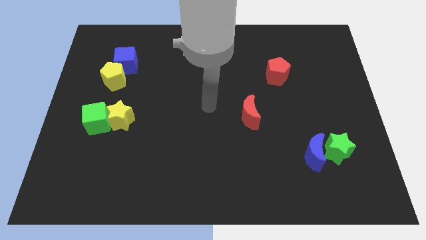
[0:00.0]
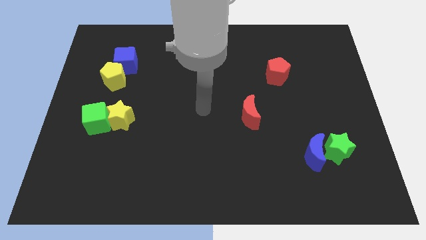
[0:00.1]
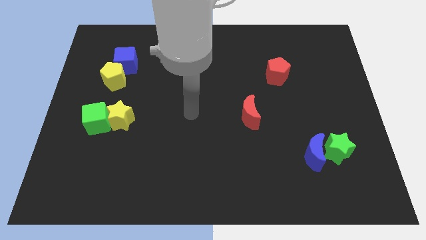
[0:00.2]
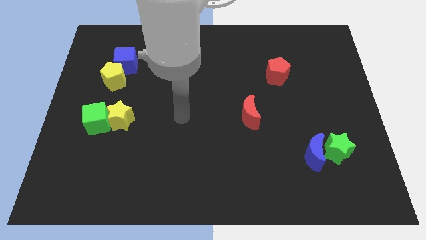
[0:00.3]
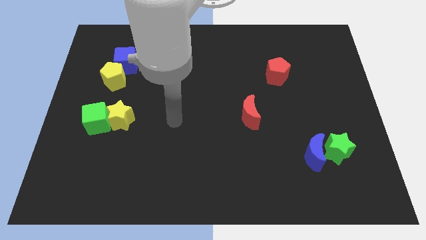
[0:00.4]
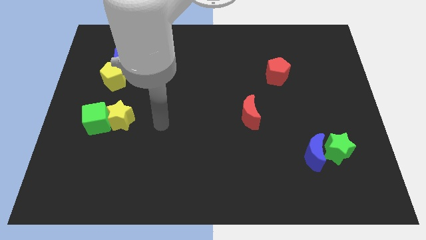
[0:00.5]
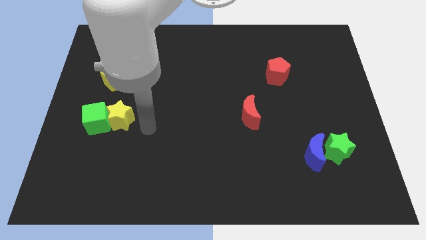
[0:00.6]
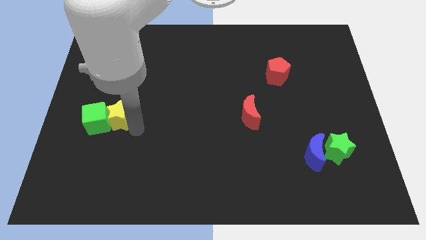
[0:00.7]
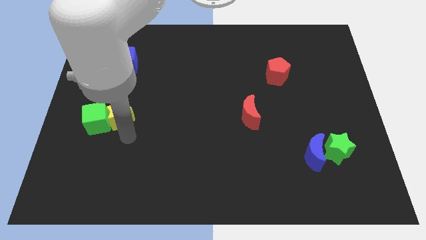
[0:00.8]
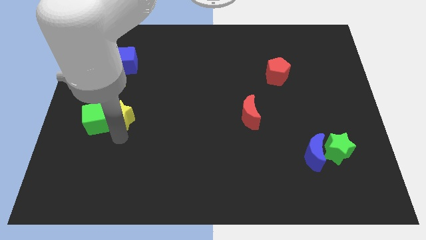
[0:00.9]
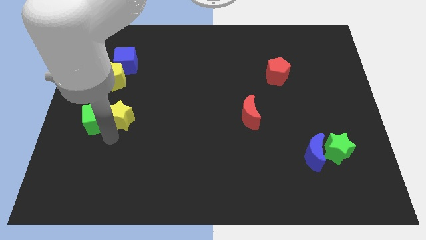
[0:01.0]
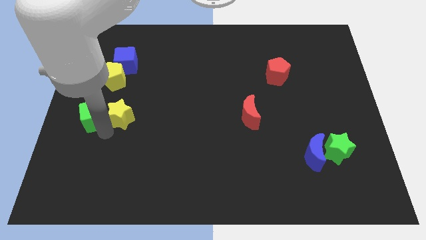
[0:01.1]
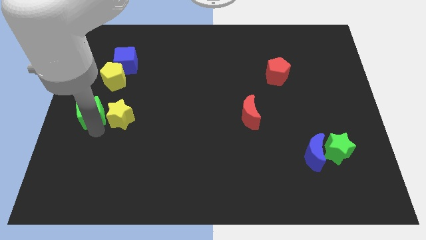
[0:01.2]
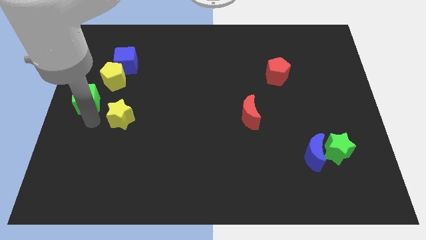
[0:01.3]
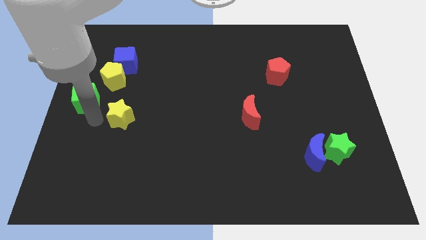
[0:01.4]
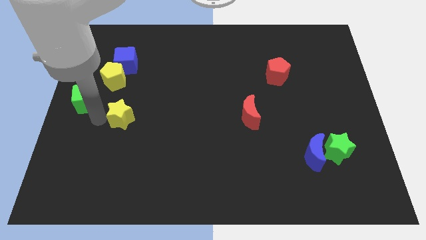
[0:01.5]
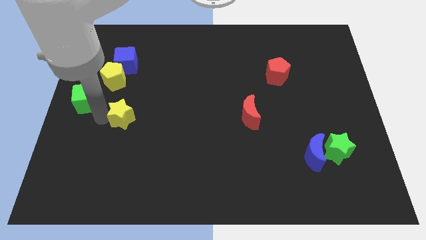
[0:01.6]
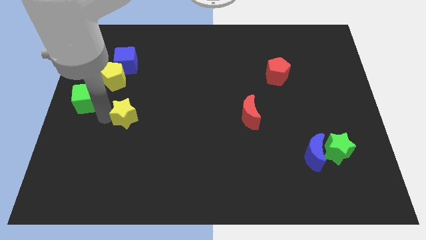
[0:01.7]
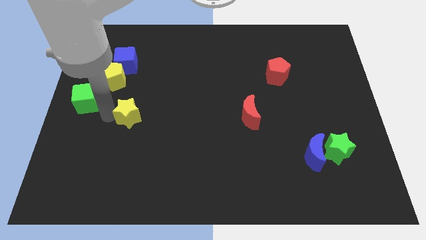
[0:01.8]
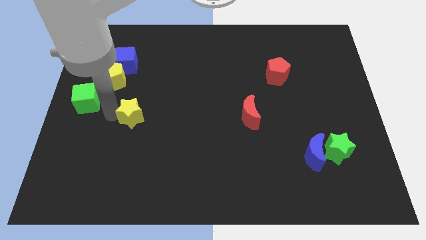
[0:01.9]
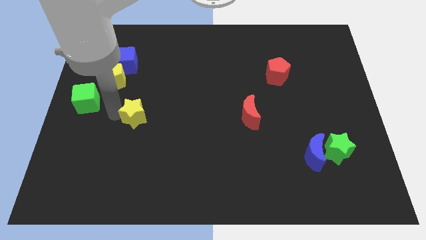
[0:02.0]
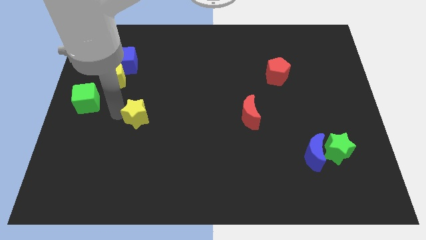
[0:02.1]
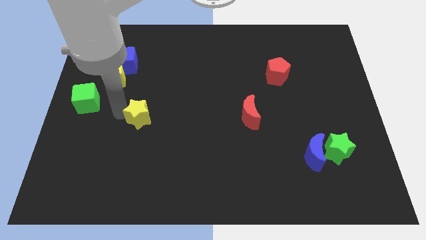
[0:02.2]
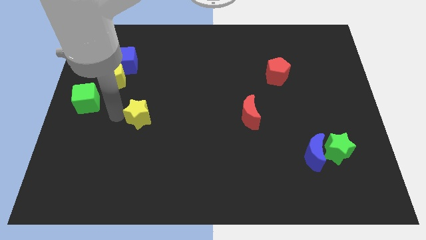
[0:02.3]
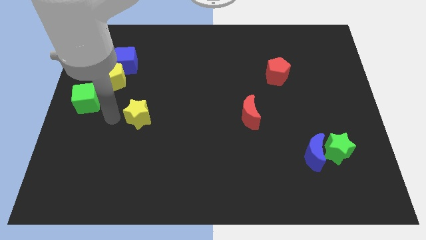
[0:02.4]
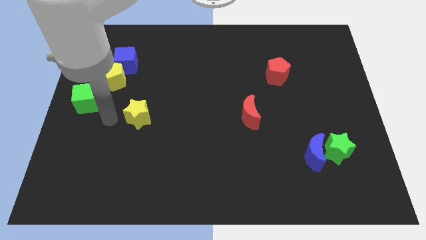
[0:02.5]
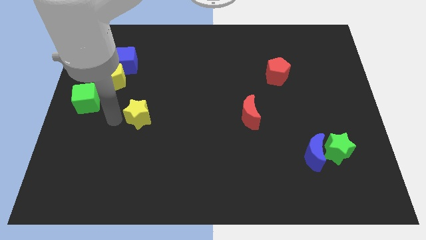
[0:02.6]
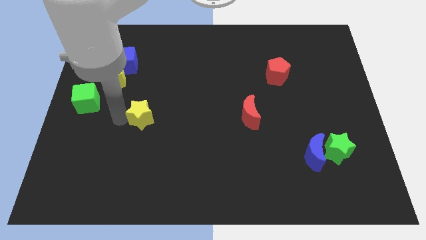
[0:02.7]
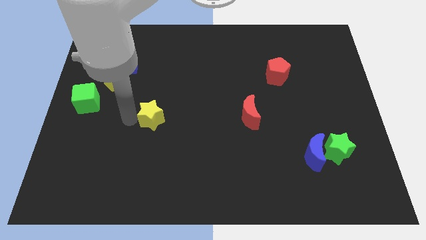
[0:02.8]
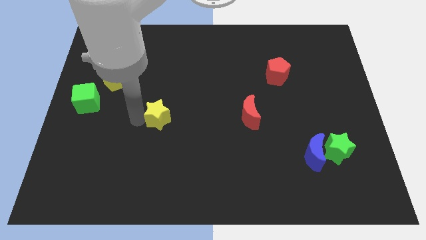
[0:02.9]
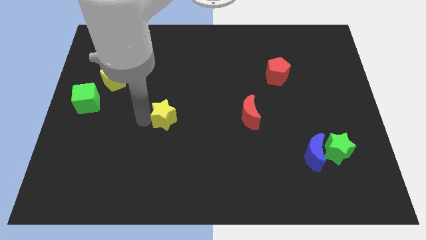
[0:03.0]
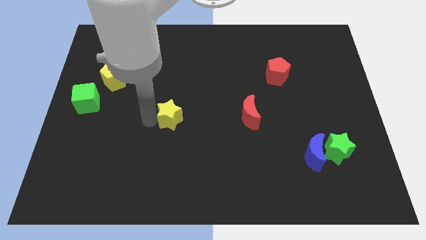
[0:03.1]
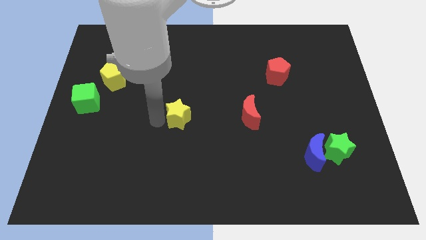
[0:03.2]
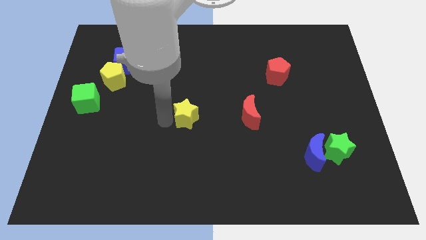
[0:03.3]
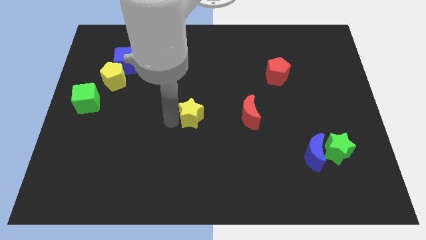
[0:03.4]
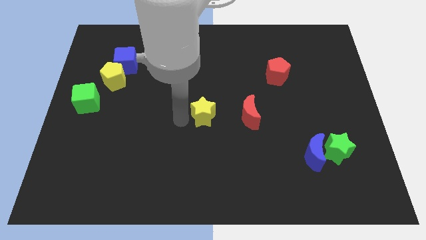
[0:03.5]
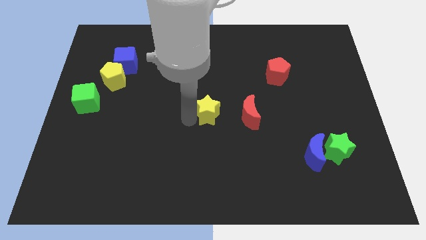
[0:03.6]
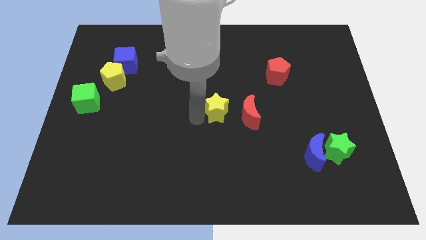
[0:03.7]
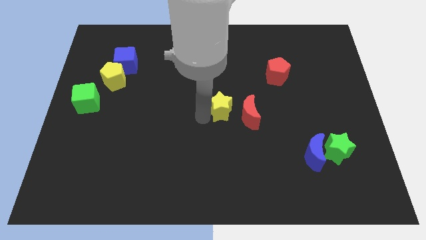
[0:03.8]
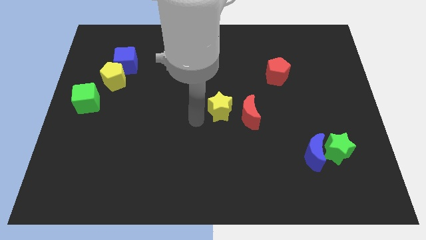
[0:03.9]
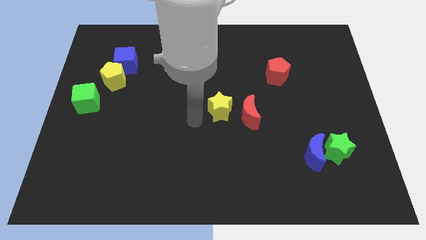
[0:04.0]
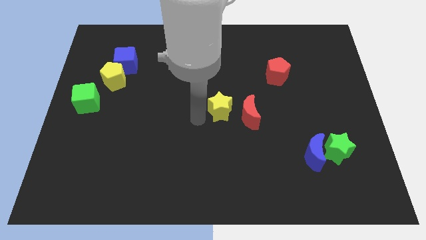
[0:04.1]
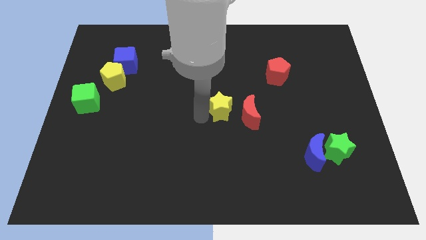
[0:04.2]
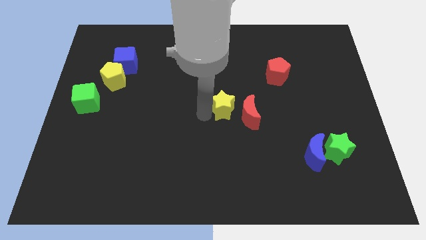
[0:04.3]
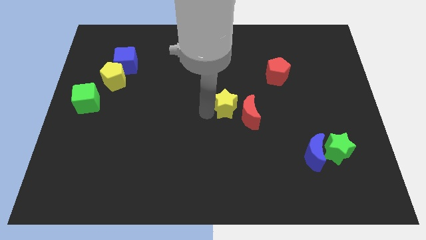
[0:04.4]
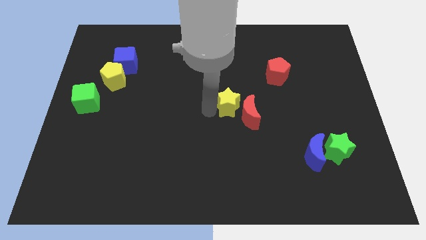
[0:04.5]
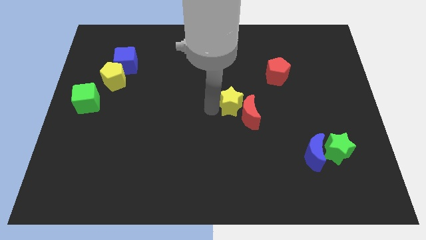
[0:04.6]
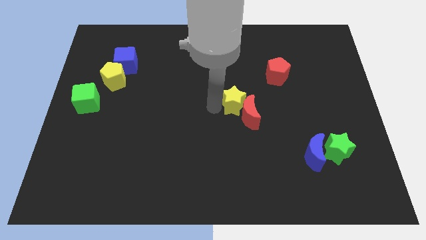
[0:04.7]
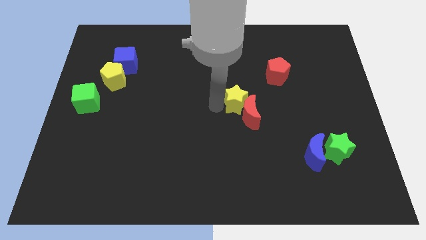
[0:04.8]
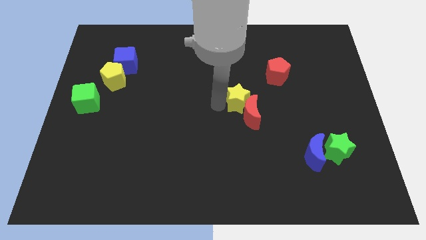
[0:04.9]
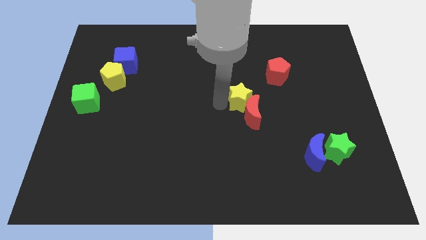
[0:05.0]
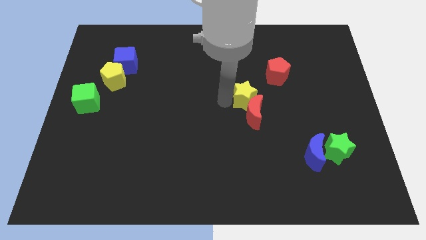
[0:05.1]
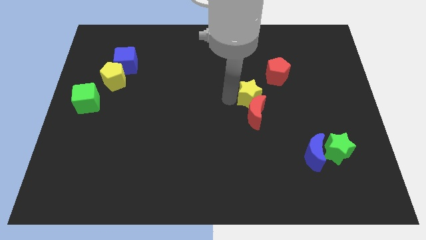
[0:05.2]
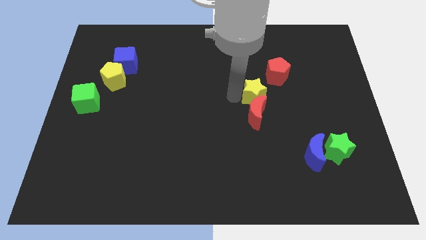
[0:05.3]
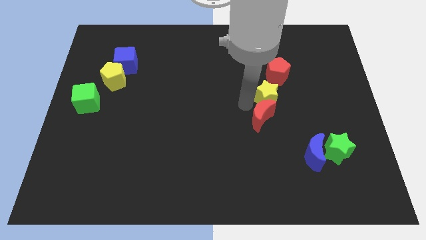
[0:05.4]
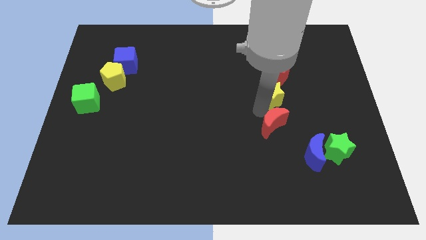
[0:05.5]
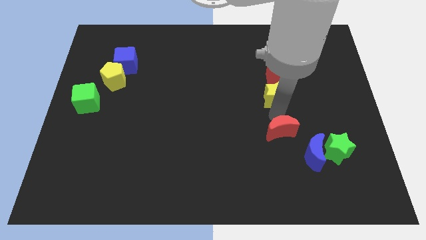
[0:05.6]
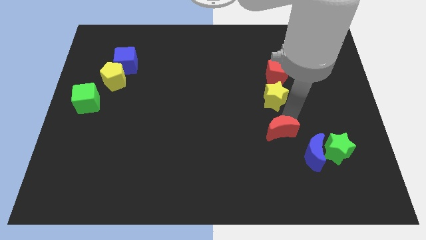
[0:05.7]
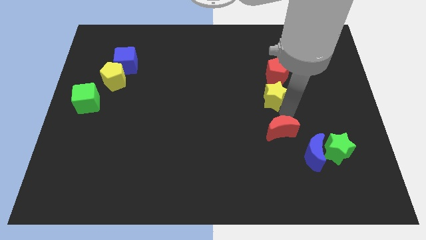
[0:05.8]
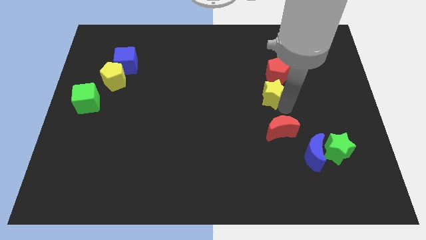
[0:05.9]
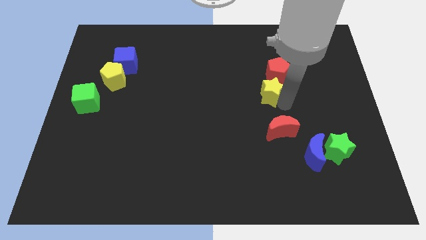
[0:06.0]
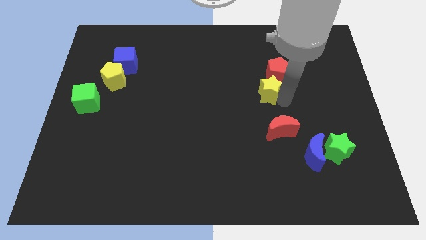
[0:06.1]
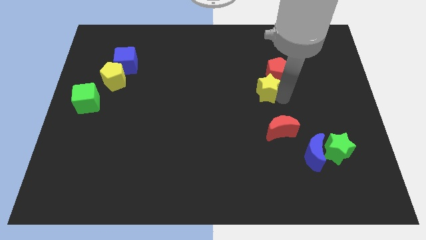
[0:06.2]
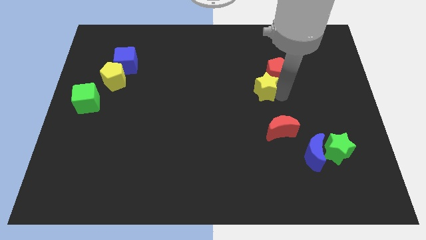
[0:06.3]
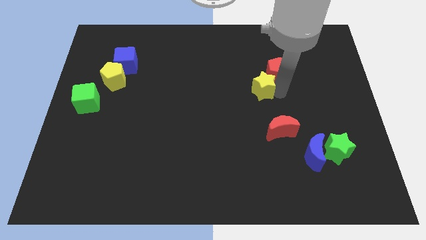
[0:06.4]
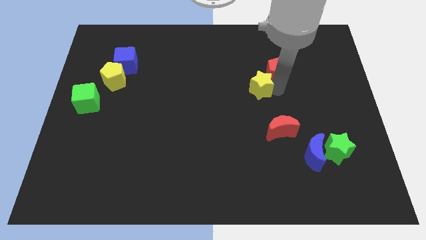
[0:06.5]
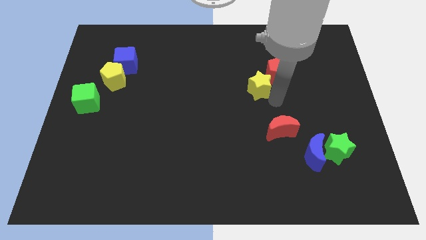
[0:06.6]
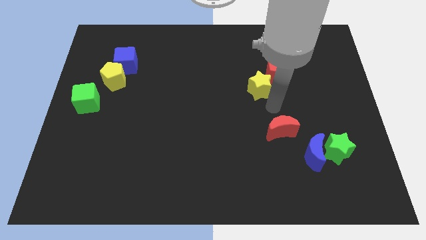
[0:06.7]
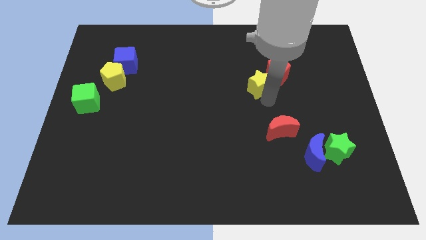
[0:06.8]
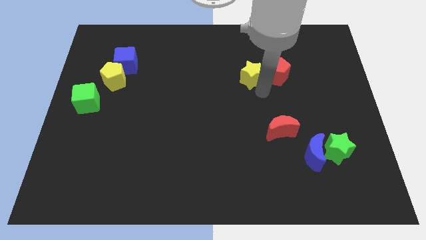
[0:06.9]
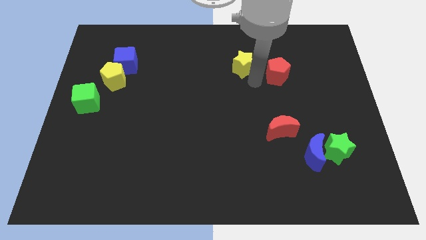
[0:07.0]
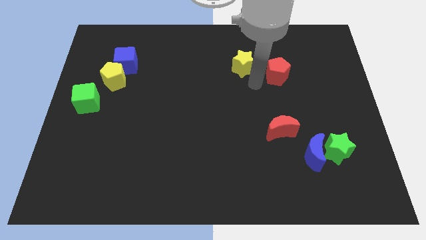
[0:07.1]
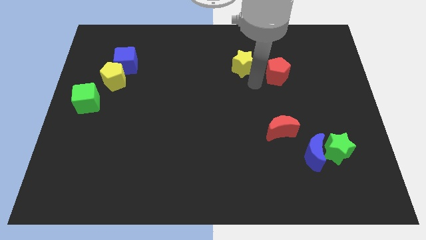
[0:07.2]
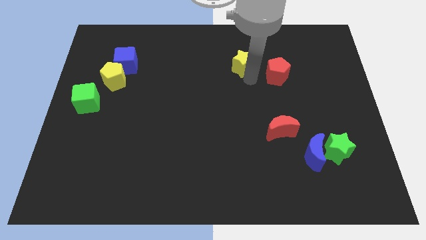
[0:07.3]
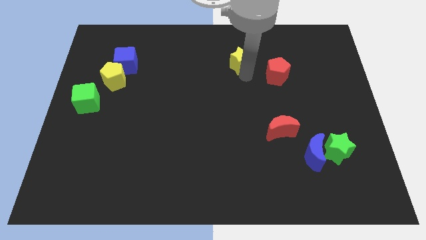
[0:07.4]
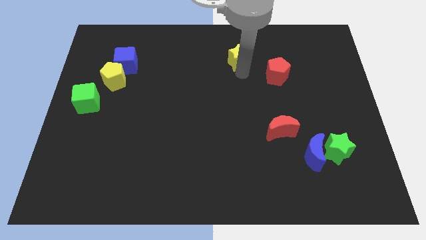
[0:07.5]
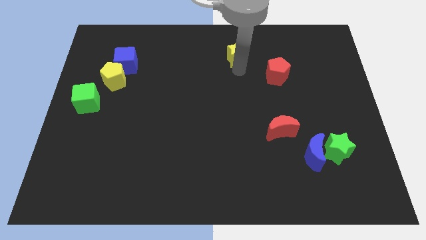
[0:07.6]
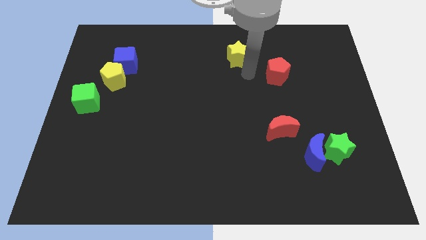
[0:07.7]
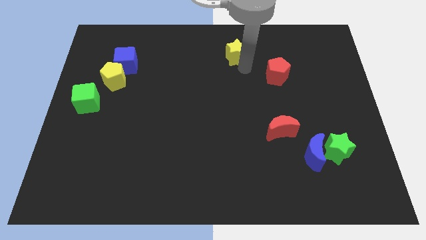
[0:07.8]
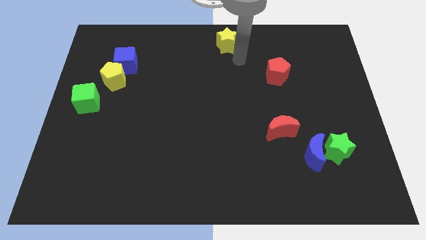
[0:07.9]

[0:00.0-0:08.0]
put the yellow star to the top side
